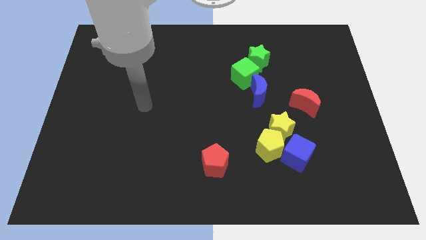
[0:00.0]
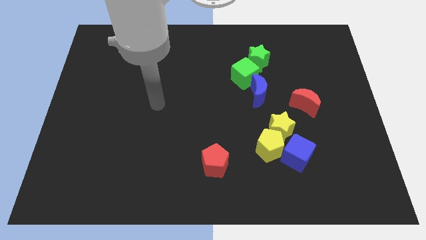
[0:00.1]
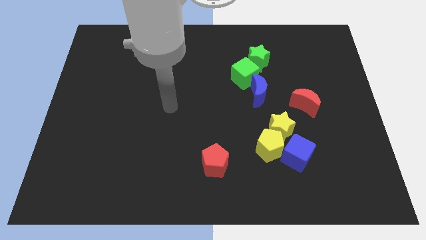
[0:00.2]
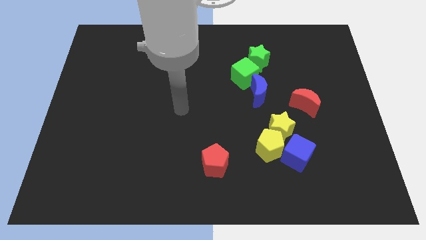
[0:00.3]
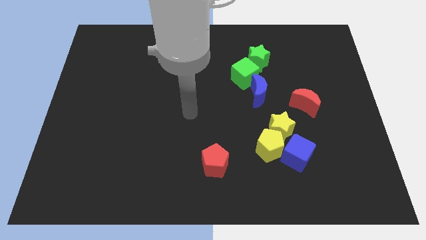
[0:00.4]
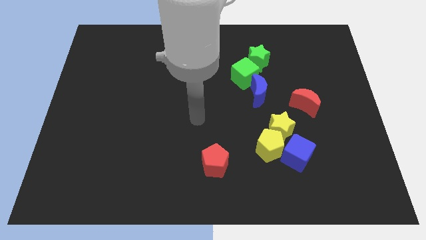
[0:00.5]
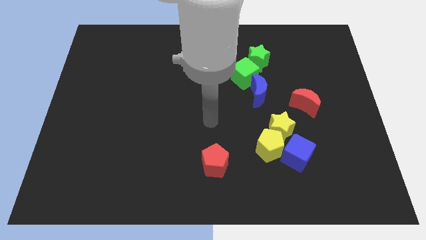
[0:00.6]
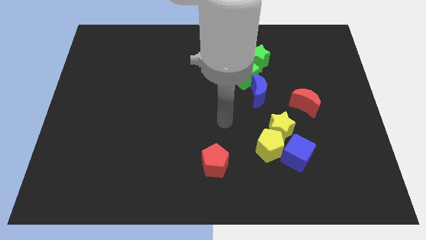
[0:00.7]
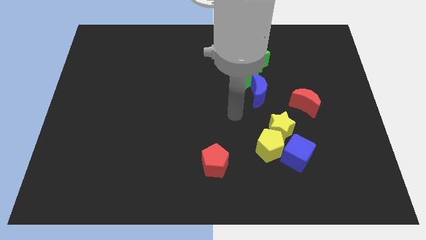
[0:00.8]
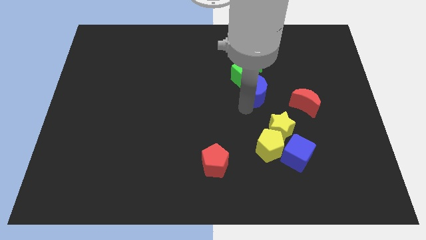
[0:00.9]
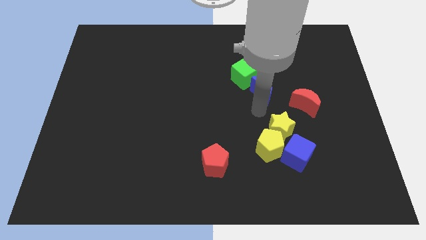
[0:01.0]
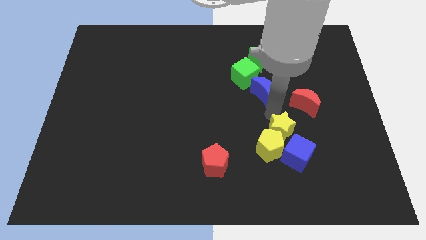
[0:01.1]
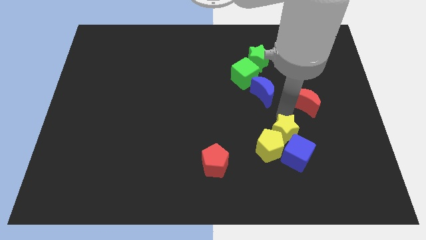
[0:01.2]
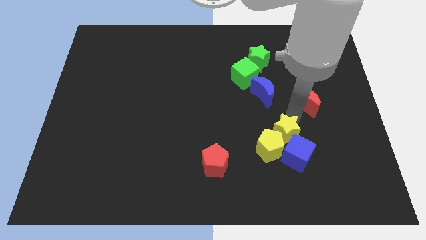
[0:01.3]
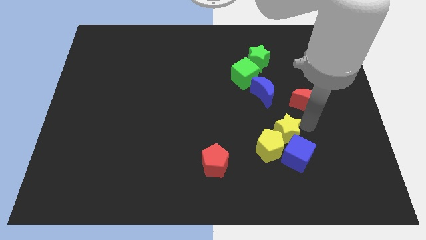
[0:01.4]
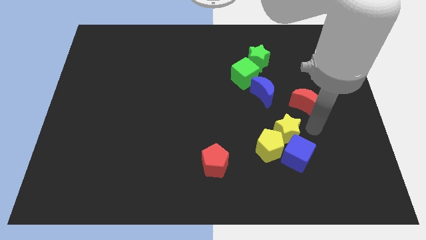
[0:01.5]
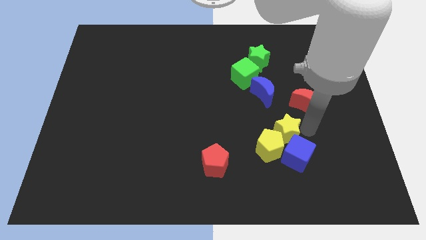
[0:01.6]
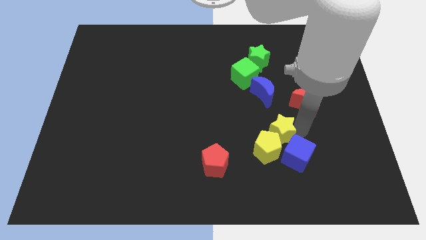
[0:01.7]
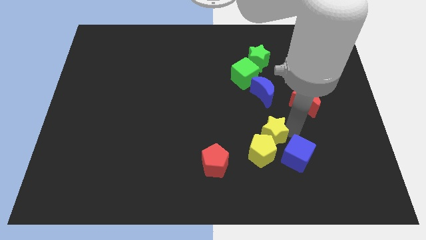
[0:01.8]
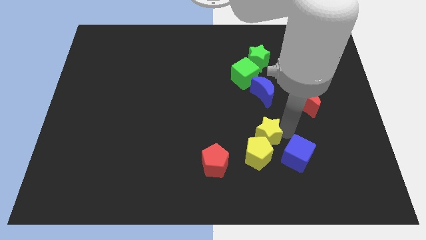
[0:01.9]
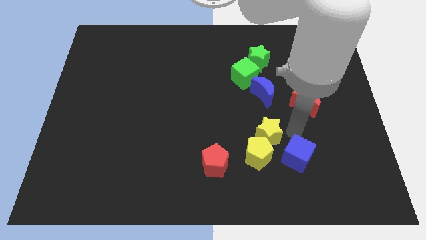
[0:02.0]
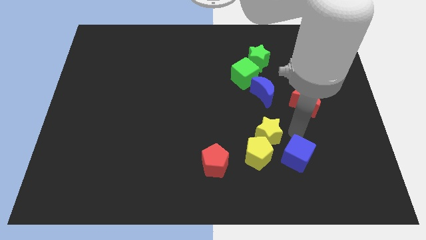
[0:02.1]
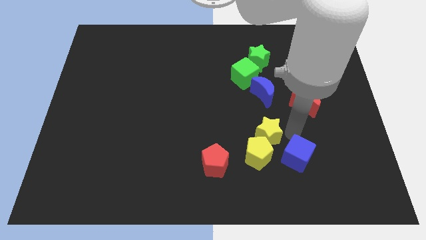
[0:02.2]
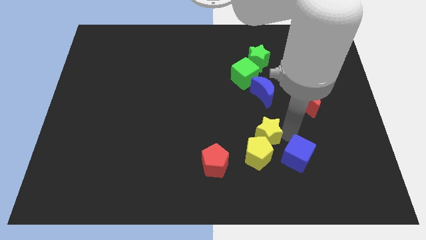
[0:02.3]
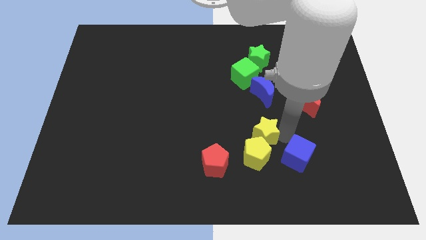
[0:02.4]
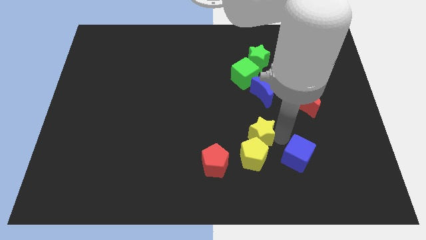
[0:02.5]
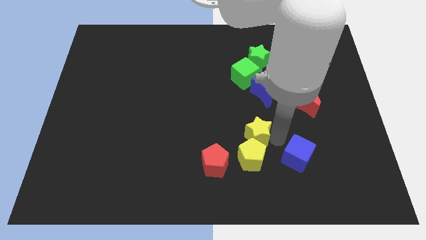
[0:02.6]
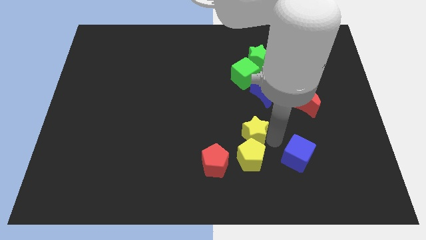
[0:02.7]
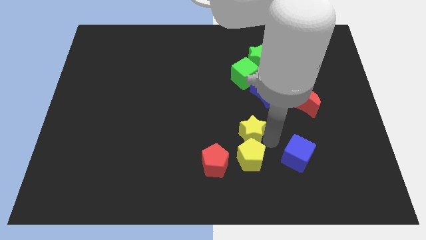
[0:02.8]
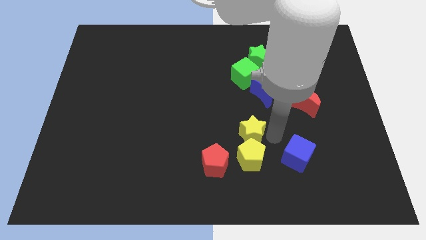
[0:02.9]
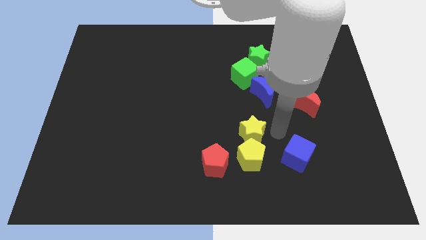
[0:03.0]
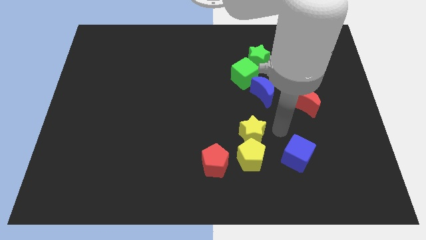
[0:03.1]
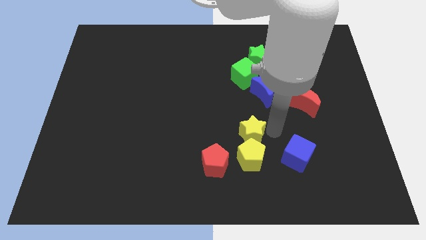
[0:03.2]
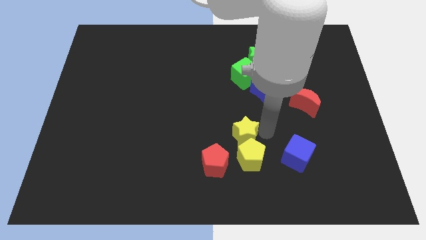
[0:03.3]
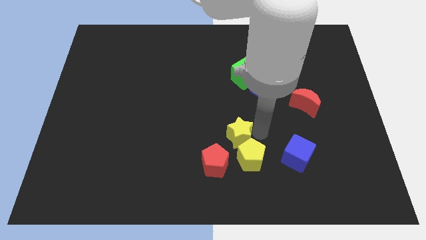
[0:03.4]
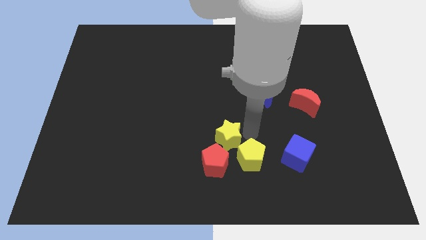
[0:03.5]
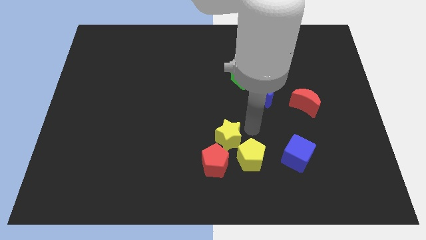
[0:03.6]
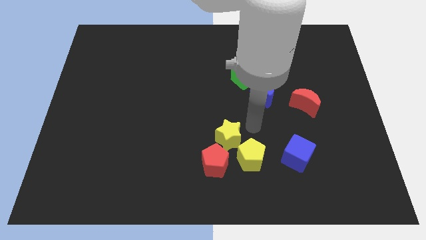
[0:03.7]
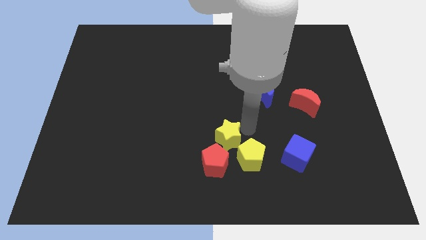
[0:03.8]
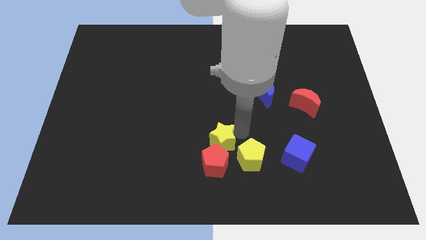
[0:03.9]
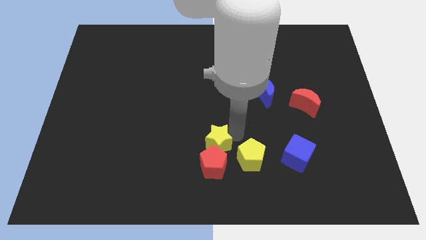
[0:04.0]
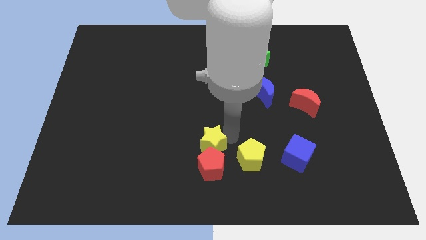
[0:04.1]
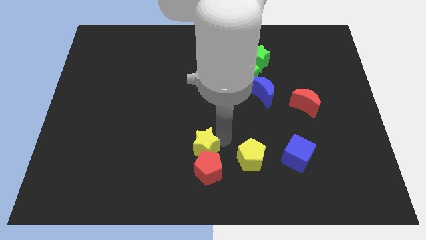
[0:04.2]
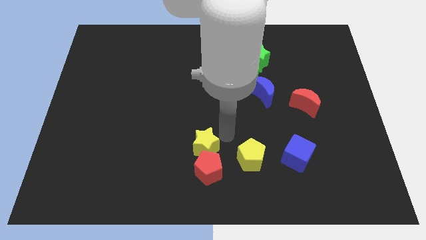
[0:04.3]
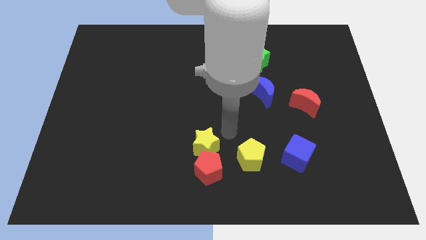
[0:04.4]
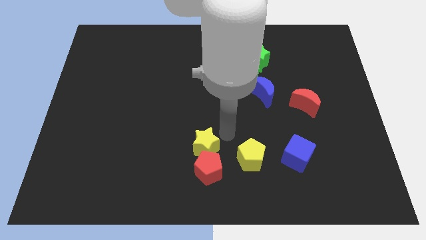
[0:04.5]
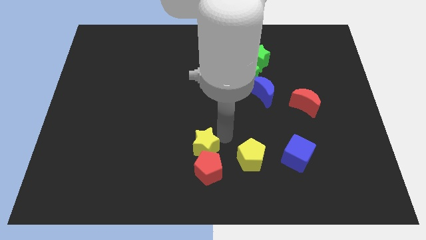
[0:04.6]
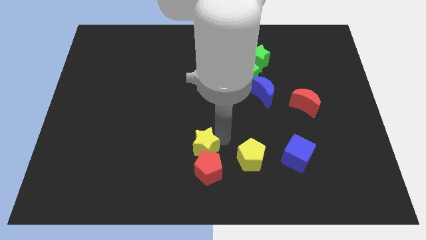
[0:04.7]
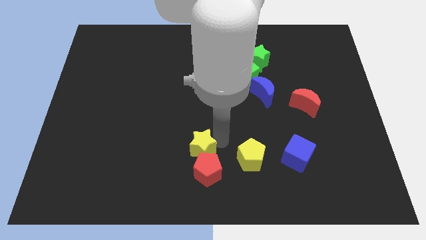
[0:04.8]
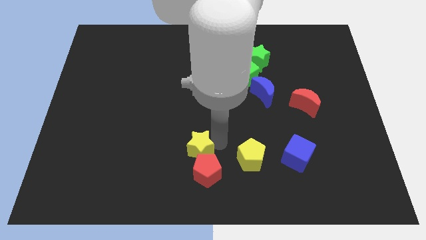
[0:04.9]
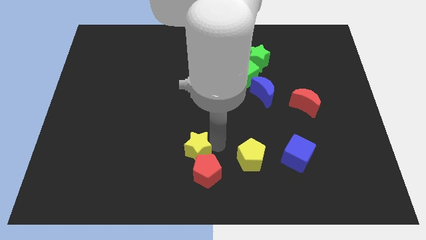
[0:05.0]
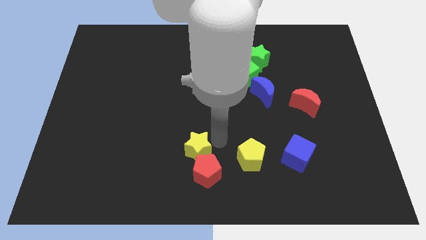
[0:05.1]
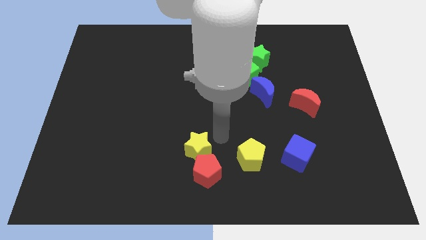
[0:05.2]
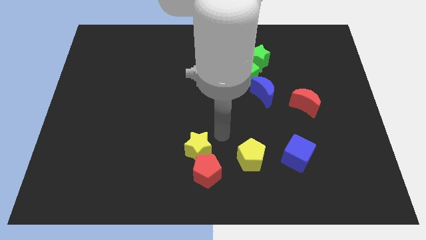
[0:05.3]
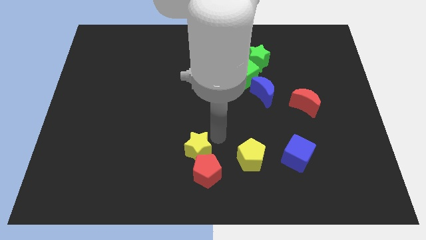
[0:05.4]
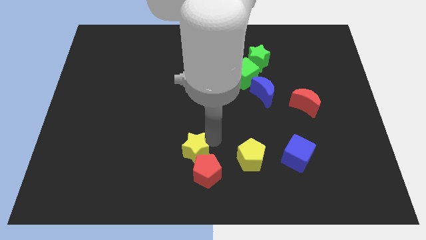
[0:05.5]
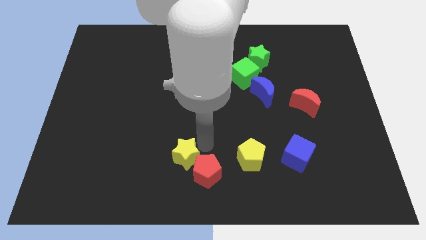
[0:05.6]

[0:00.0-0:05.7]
move the yellow star to the left of the red pentagon

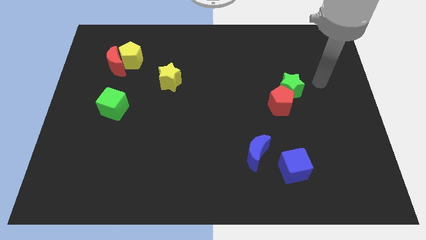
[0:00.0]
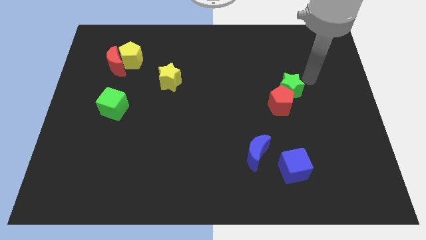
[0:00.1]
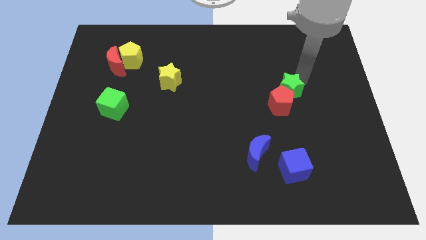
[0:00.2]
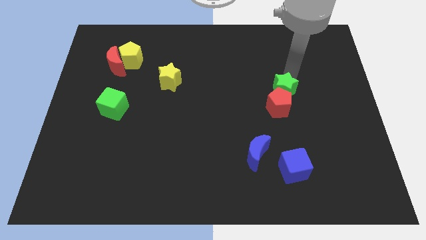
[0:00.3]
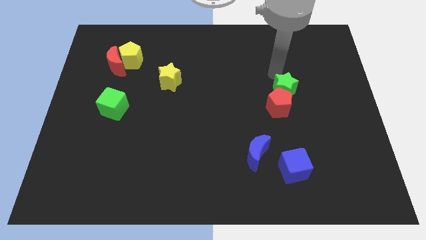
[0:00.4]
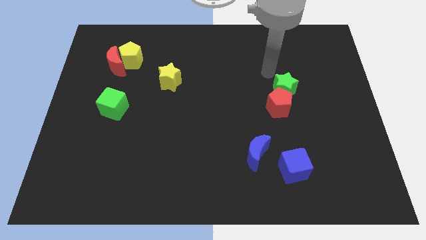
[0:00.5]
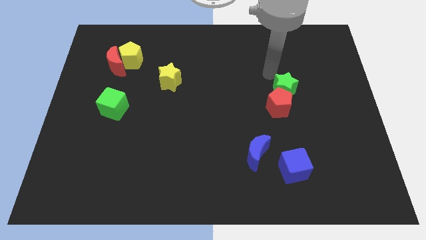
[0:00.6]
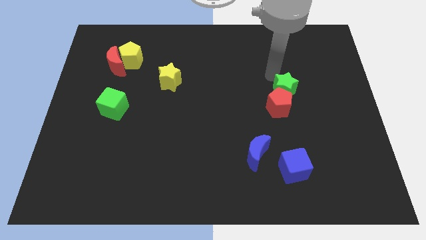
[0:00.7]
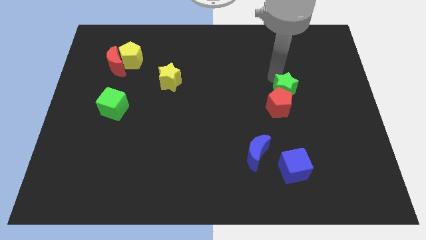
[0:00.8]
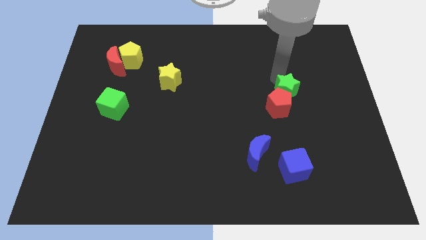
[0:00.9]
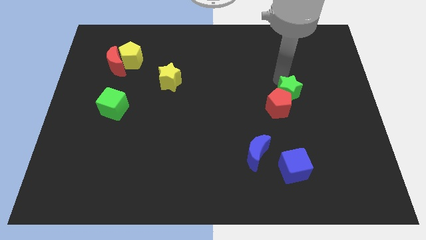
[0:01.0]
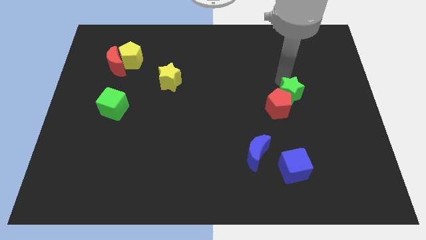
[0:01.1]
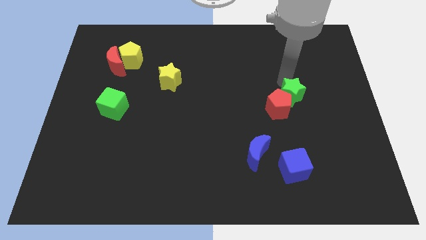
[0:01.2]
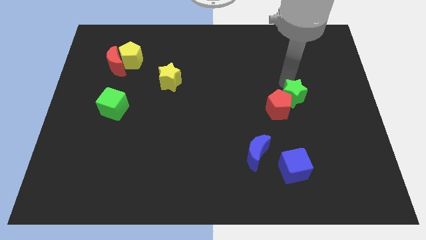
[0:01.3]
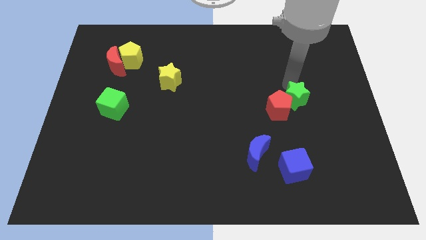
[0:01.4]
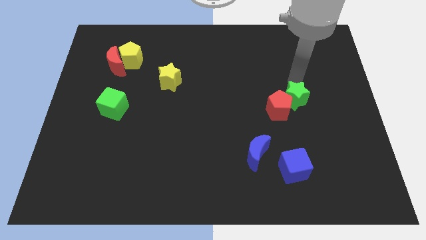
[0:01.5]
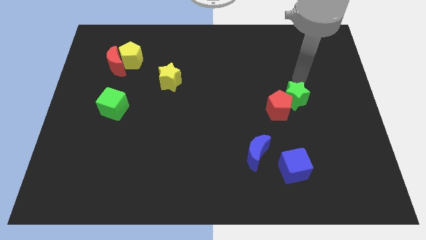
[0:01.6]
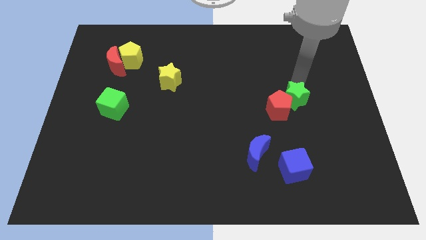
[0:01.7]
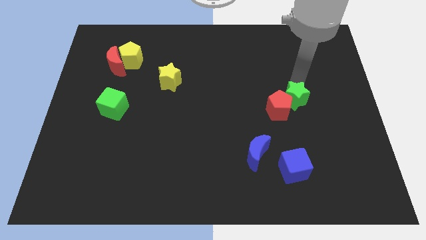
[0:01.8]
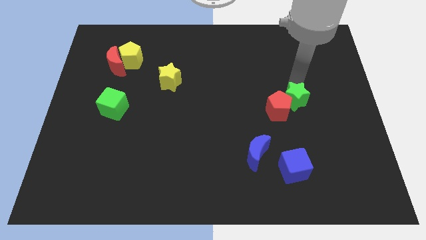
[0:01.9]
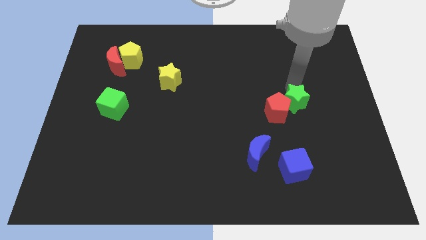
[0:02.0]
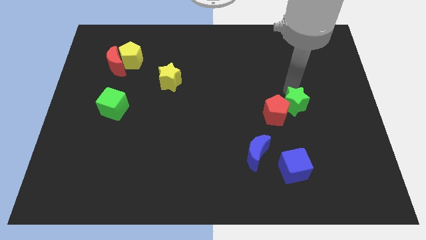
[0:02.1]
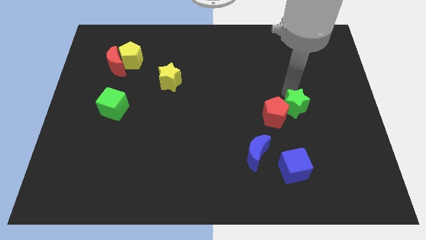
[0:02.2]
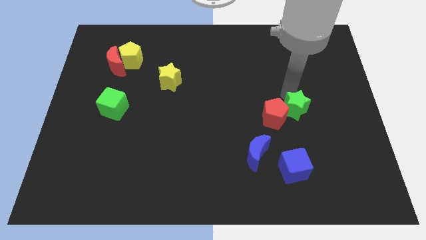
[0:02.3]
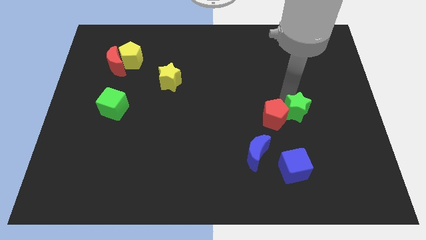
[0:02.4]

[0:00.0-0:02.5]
put the green star above the blue cube
